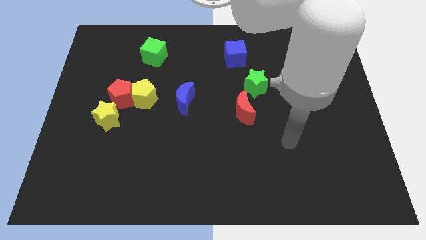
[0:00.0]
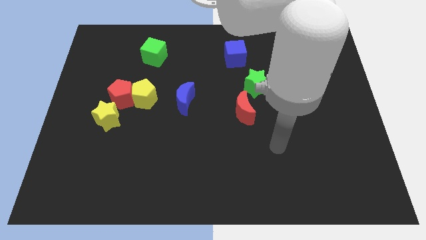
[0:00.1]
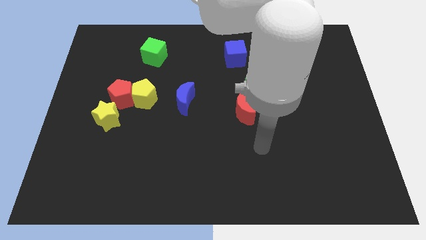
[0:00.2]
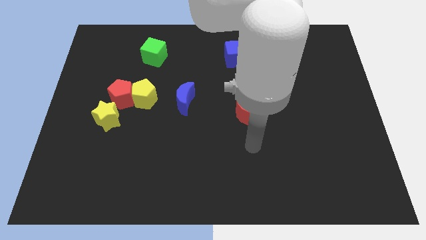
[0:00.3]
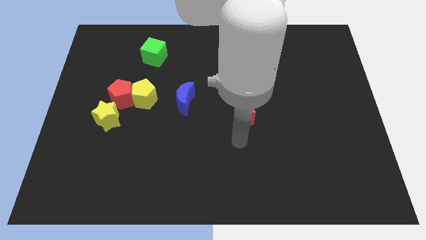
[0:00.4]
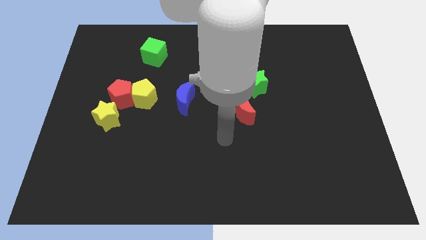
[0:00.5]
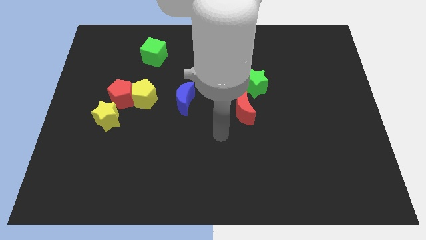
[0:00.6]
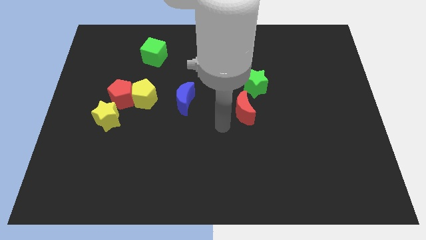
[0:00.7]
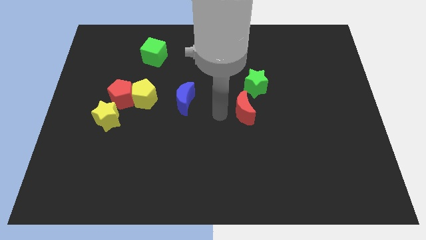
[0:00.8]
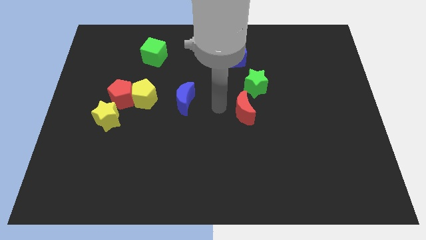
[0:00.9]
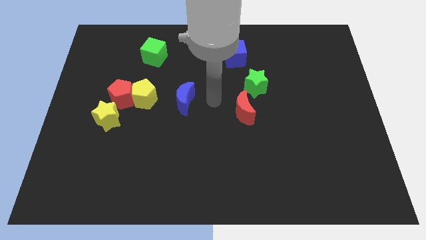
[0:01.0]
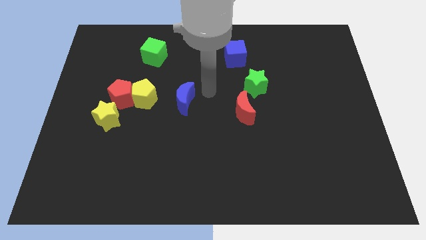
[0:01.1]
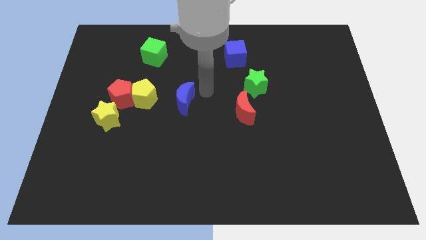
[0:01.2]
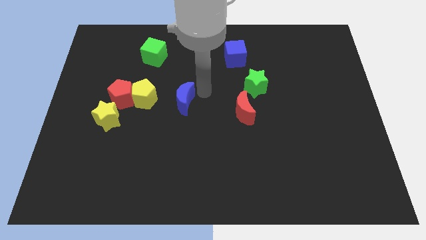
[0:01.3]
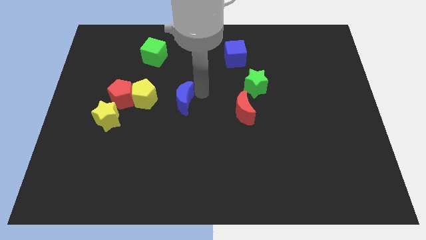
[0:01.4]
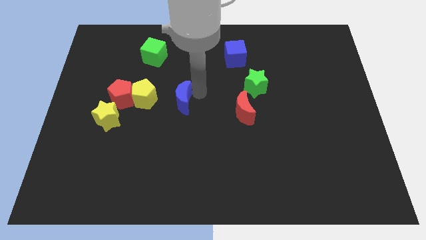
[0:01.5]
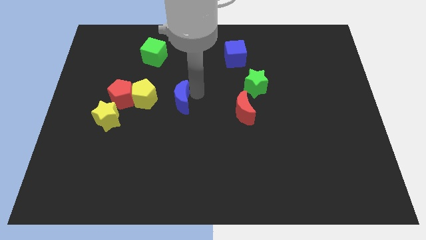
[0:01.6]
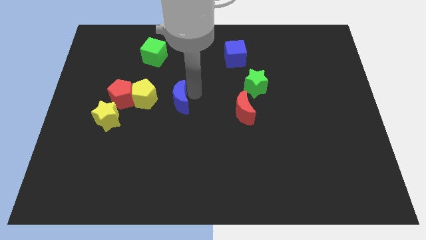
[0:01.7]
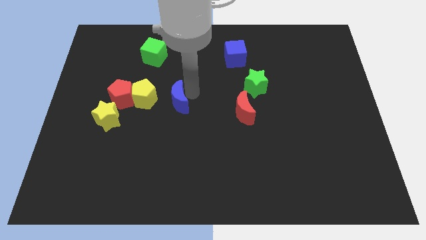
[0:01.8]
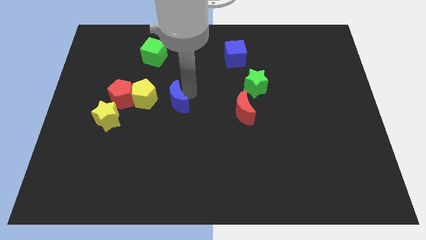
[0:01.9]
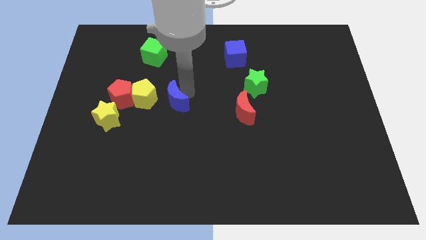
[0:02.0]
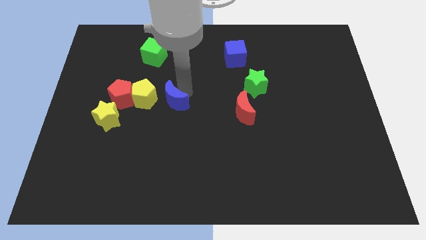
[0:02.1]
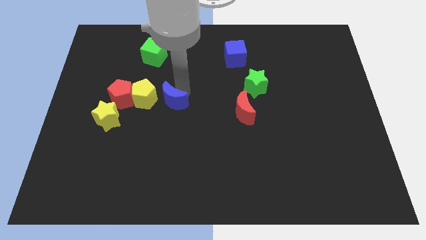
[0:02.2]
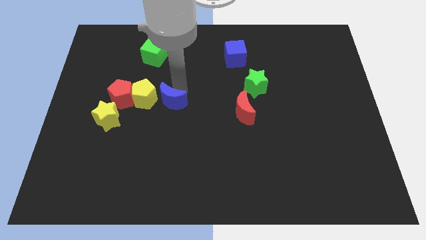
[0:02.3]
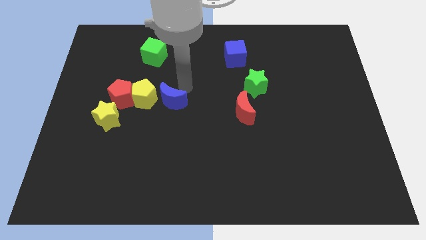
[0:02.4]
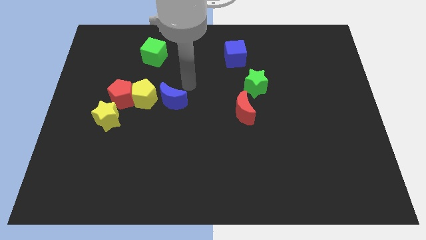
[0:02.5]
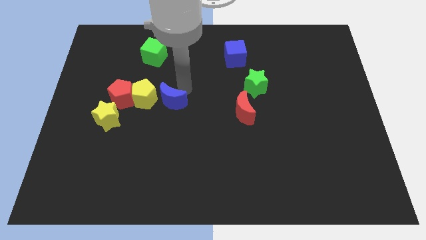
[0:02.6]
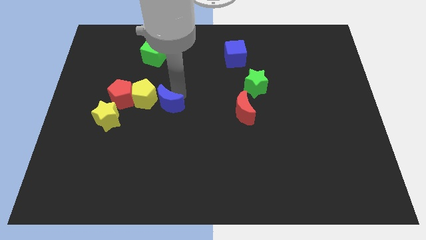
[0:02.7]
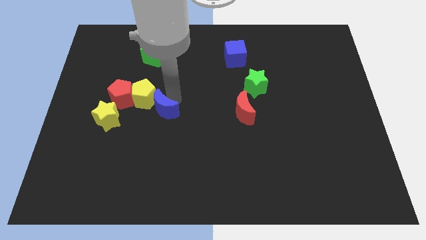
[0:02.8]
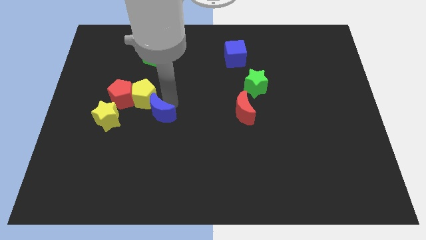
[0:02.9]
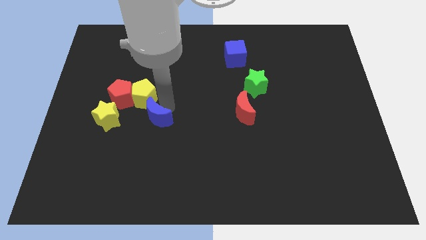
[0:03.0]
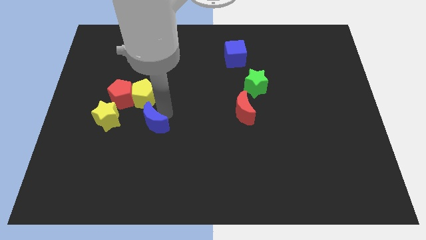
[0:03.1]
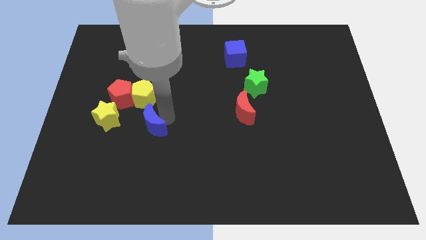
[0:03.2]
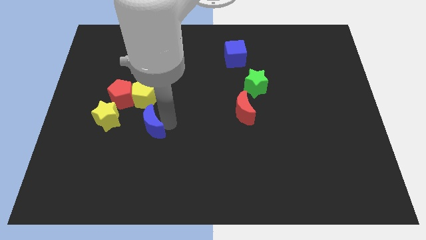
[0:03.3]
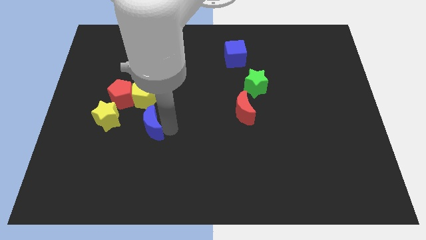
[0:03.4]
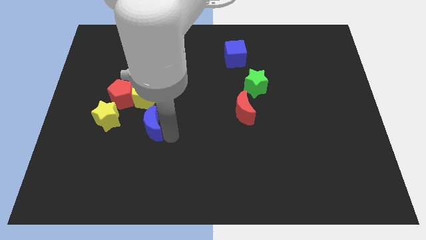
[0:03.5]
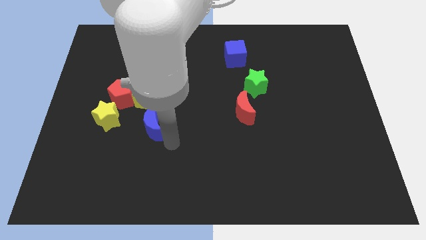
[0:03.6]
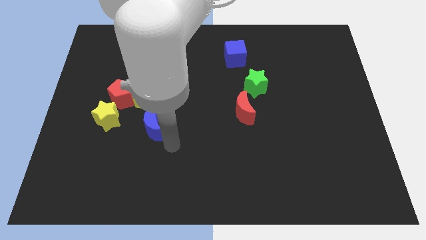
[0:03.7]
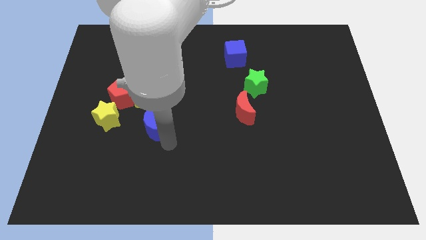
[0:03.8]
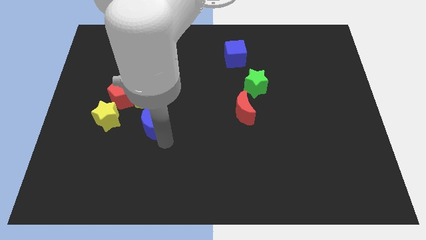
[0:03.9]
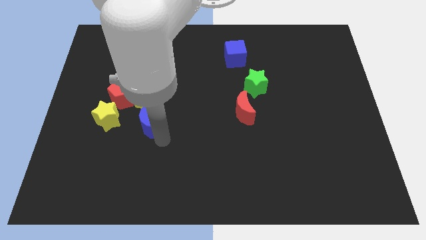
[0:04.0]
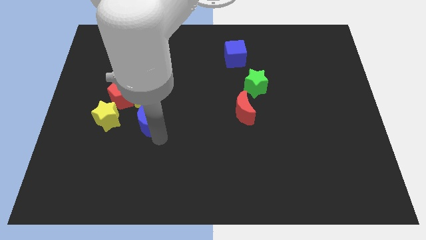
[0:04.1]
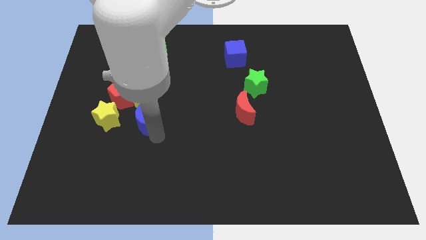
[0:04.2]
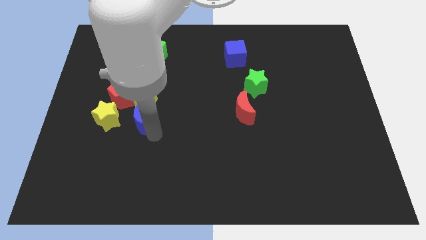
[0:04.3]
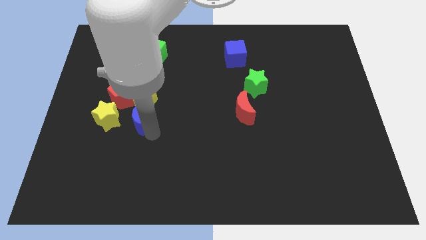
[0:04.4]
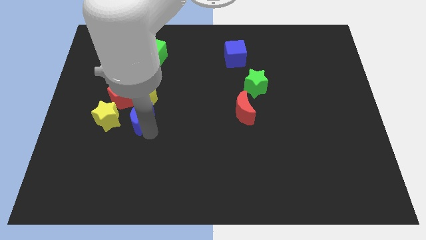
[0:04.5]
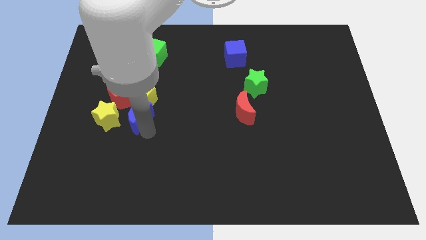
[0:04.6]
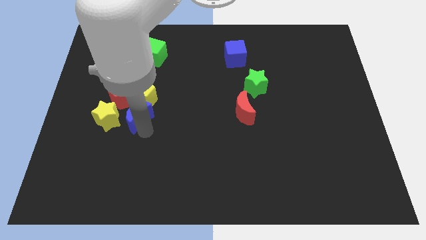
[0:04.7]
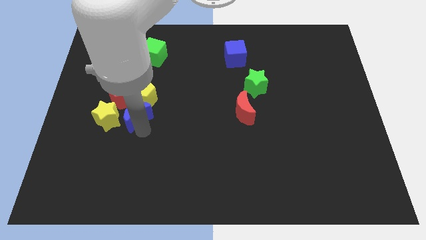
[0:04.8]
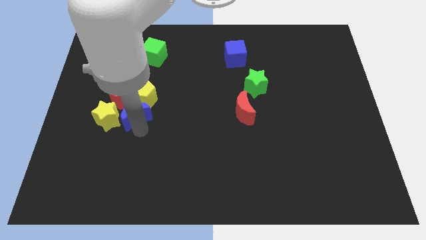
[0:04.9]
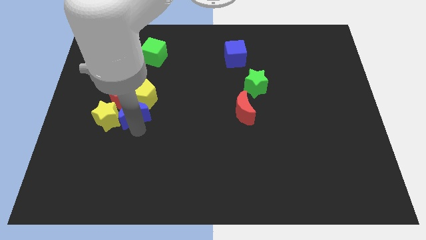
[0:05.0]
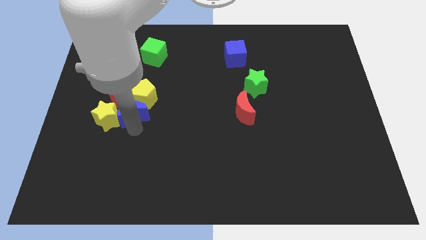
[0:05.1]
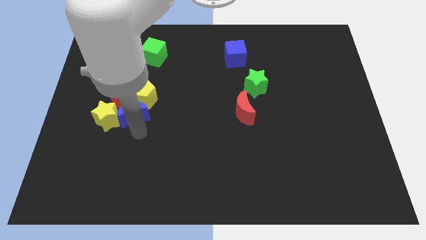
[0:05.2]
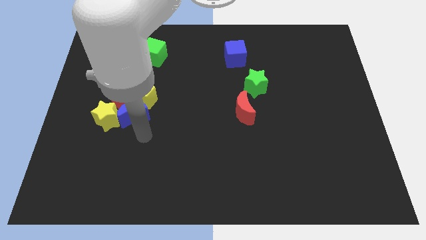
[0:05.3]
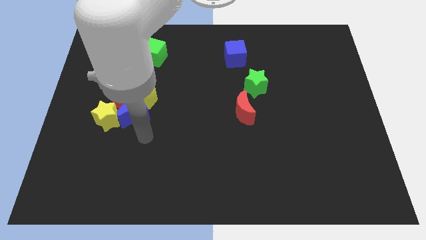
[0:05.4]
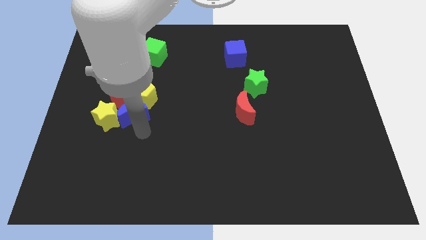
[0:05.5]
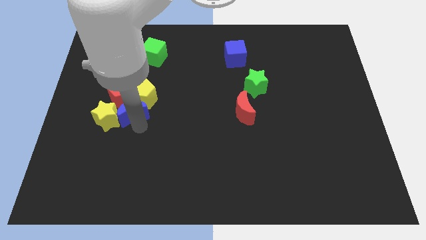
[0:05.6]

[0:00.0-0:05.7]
slide the blue moon to the red pentagon

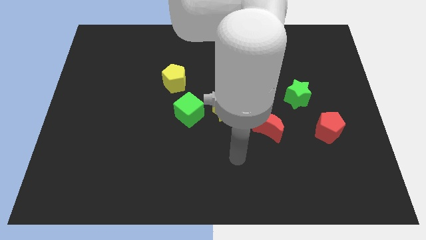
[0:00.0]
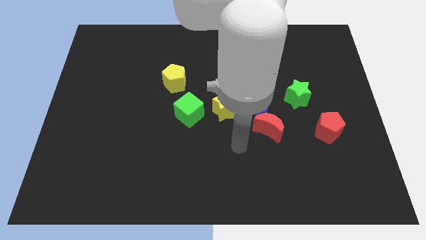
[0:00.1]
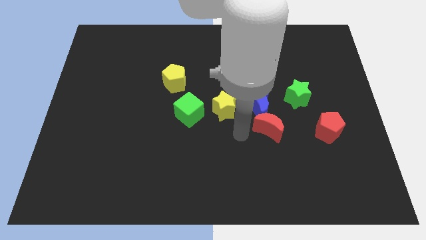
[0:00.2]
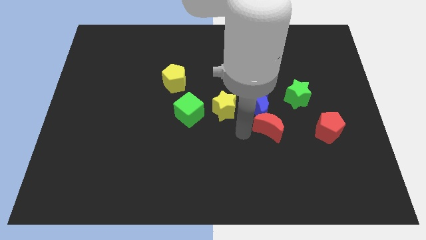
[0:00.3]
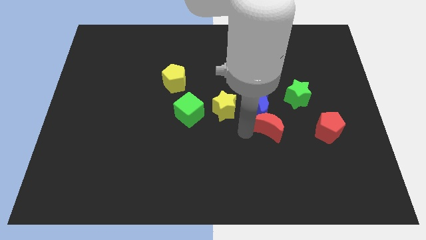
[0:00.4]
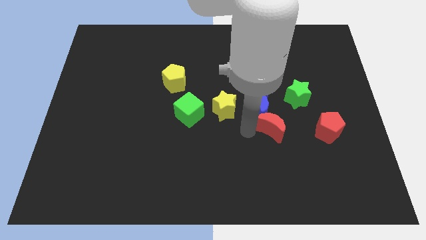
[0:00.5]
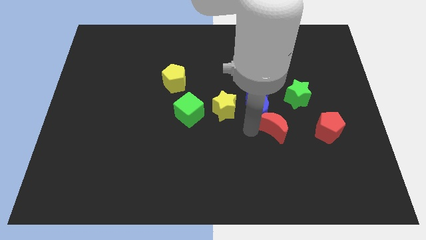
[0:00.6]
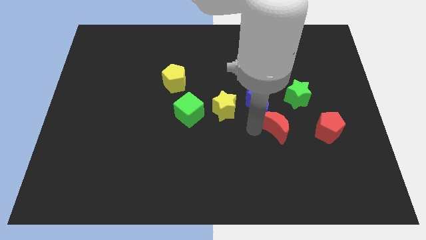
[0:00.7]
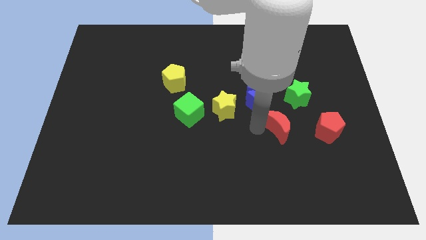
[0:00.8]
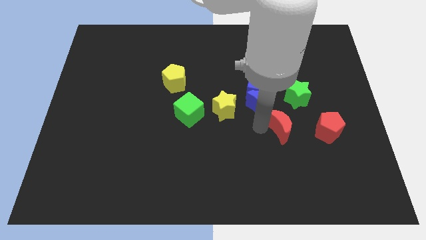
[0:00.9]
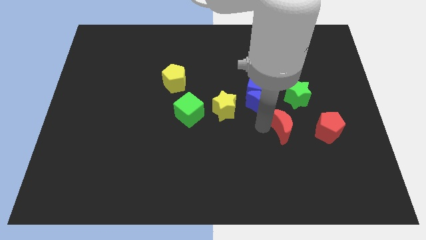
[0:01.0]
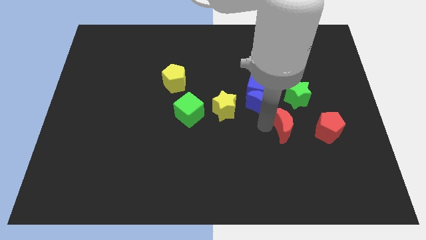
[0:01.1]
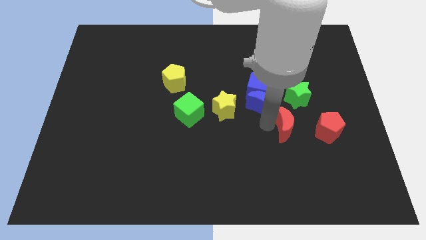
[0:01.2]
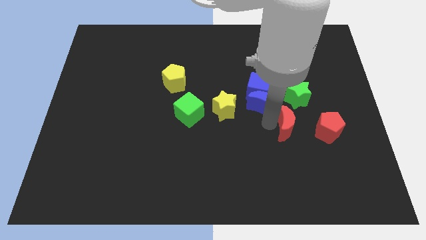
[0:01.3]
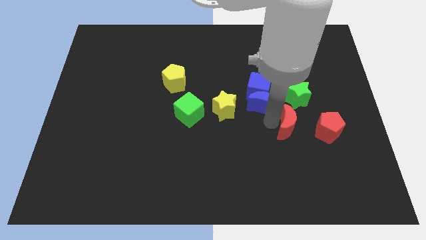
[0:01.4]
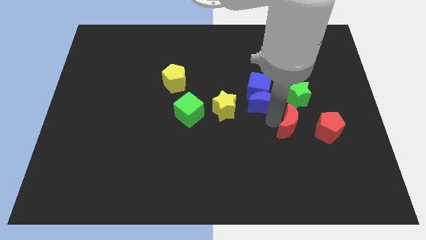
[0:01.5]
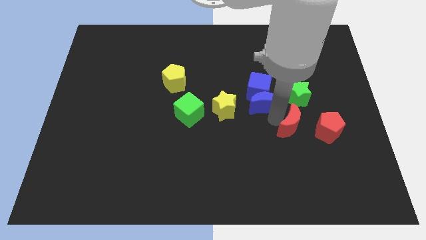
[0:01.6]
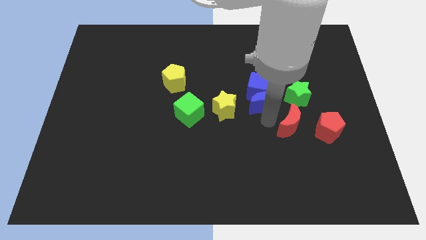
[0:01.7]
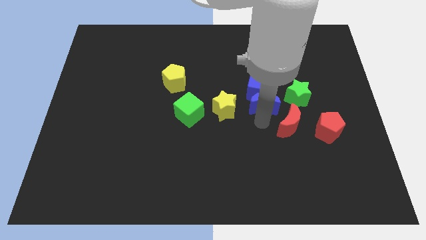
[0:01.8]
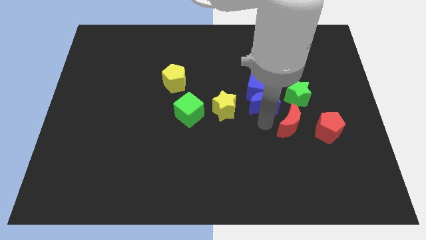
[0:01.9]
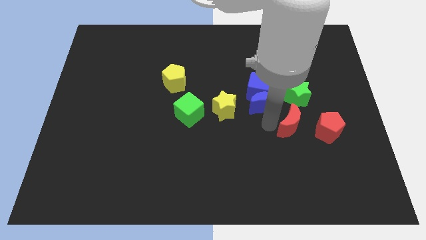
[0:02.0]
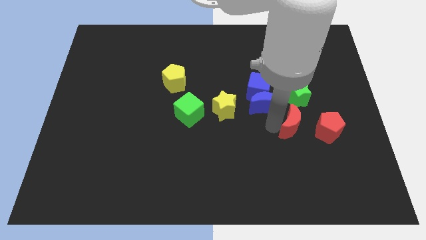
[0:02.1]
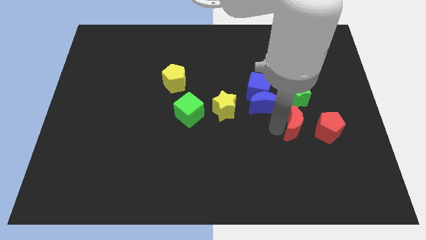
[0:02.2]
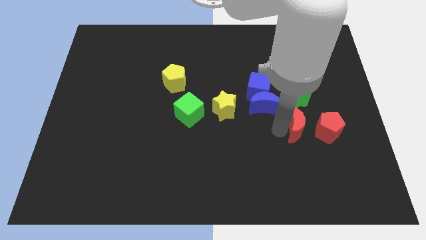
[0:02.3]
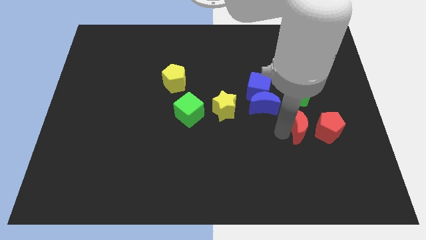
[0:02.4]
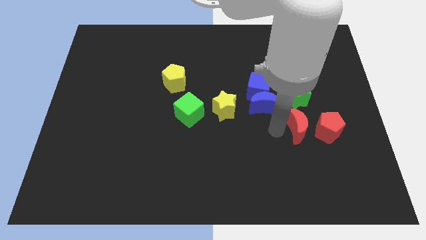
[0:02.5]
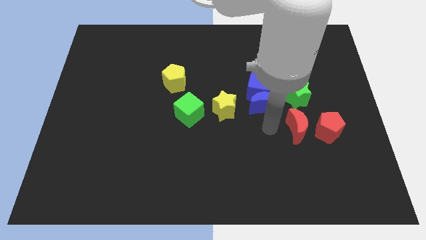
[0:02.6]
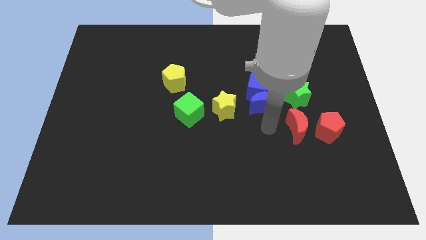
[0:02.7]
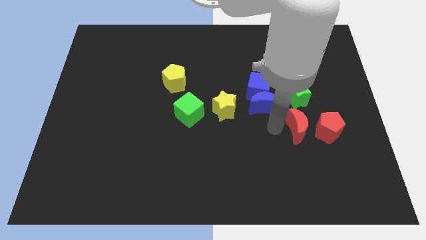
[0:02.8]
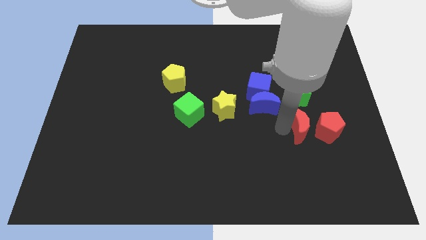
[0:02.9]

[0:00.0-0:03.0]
slide the red moon close to the red pentagon
